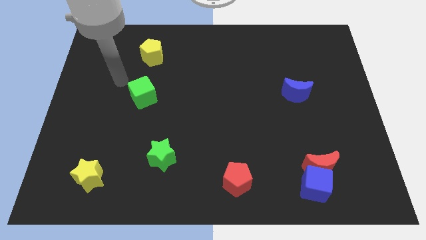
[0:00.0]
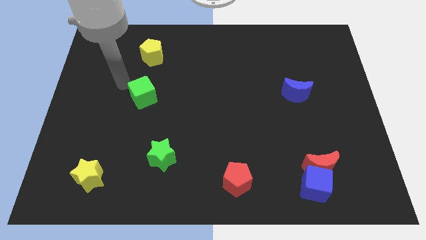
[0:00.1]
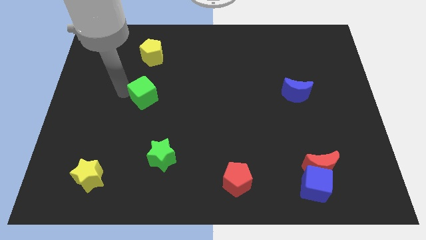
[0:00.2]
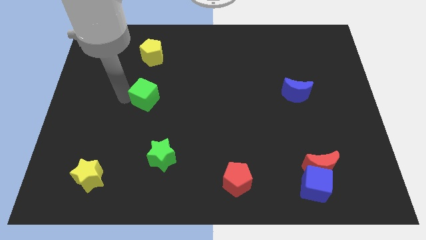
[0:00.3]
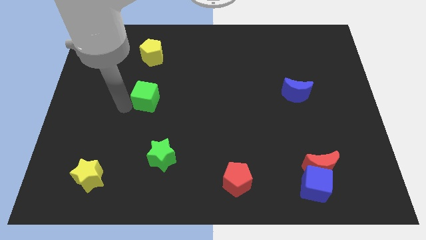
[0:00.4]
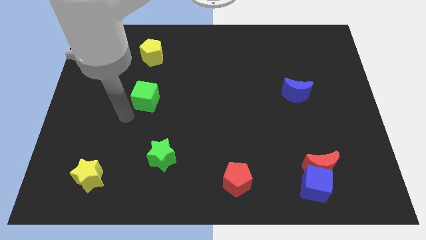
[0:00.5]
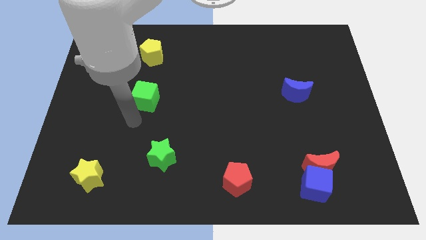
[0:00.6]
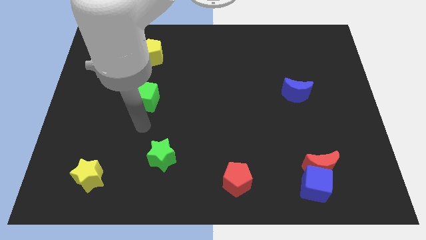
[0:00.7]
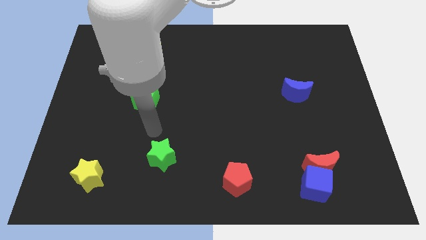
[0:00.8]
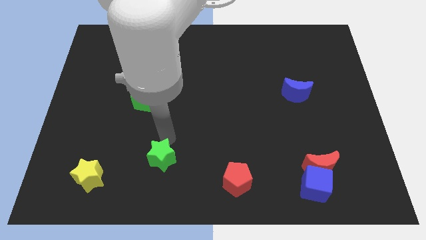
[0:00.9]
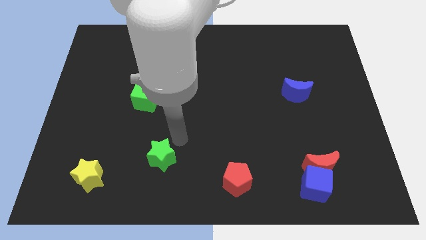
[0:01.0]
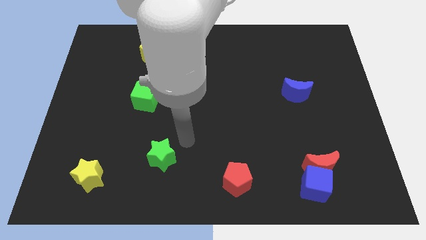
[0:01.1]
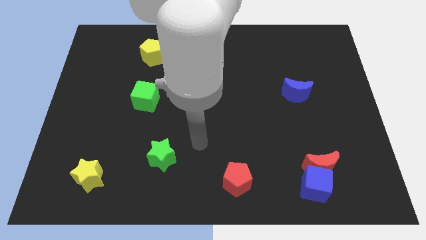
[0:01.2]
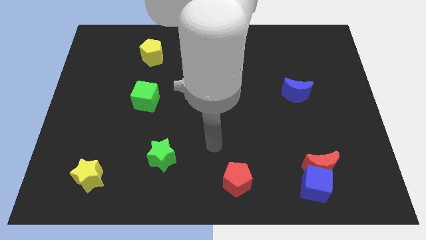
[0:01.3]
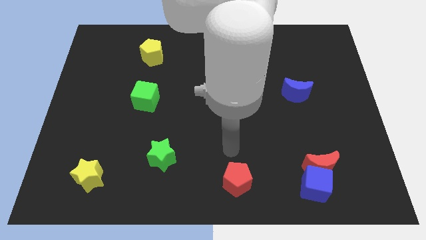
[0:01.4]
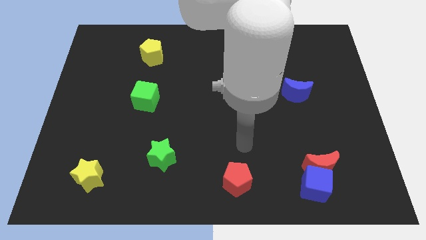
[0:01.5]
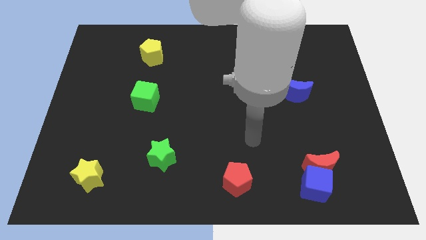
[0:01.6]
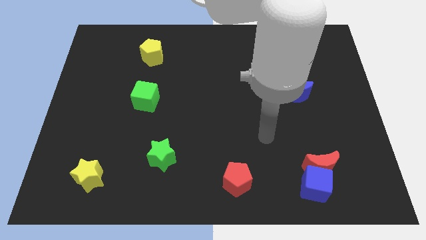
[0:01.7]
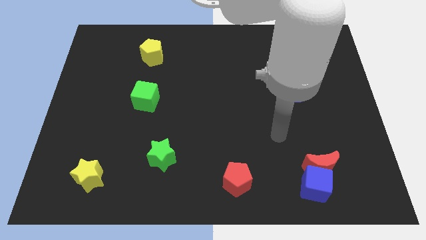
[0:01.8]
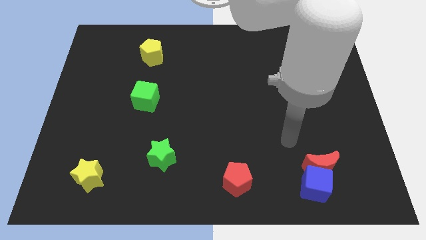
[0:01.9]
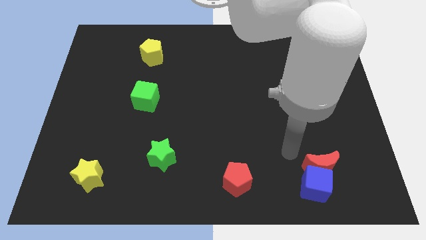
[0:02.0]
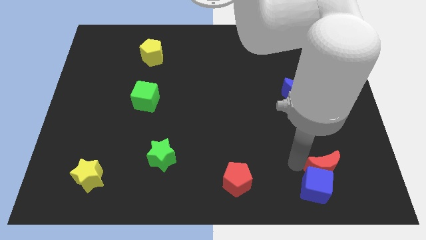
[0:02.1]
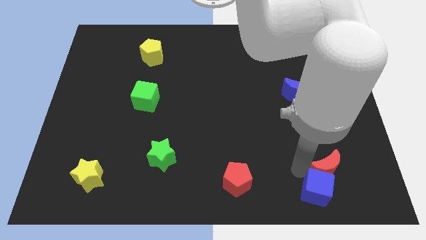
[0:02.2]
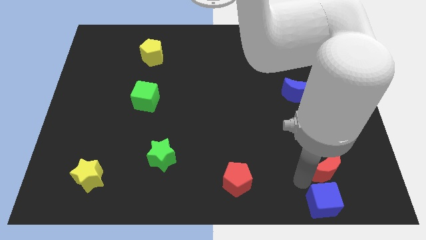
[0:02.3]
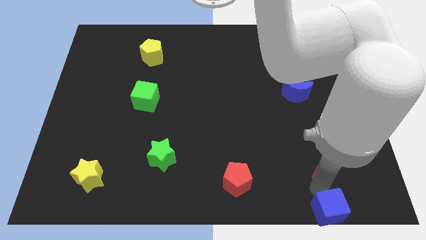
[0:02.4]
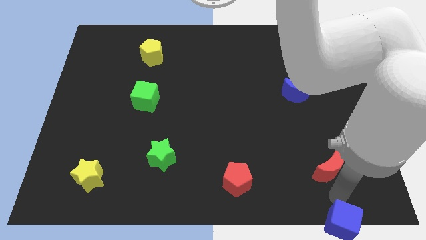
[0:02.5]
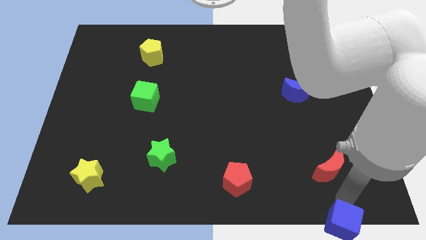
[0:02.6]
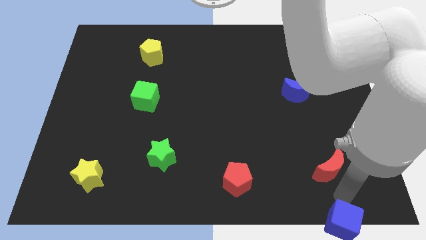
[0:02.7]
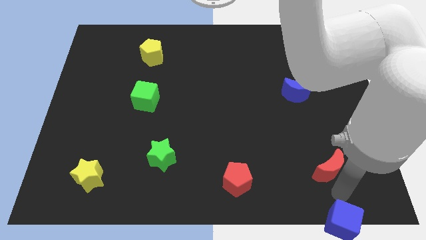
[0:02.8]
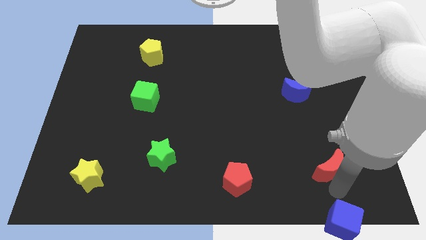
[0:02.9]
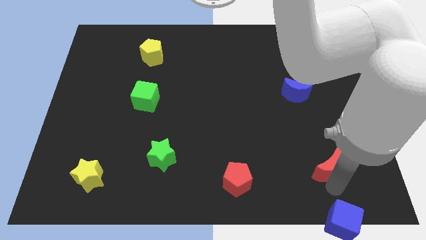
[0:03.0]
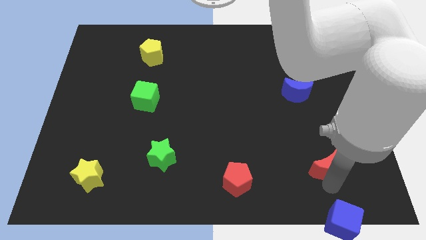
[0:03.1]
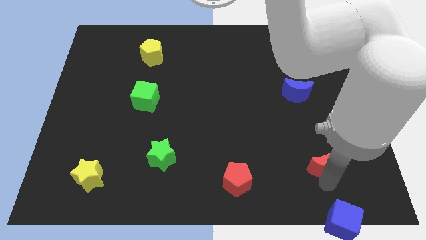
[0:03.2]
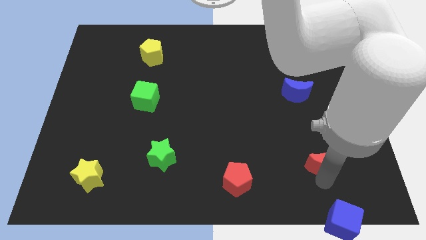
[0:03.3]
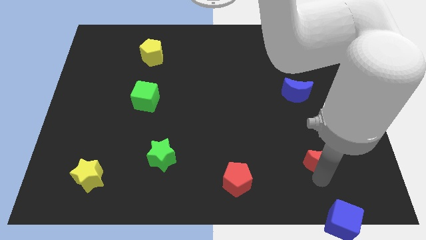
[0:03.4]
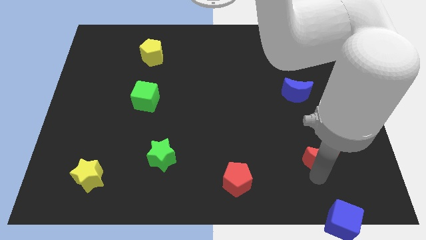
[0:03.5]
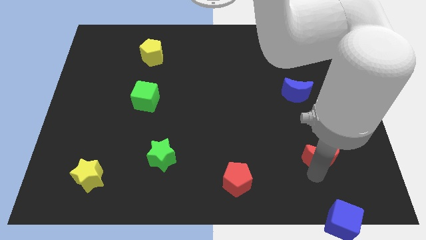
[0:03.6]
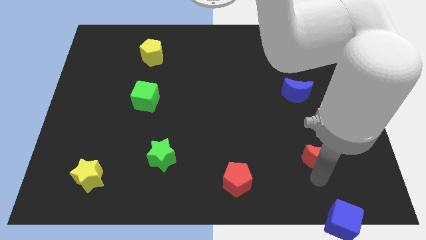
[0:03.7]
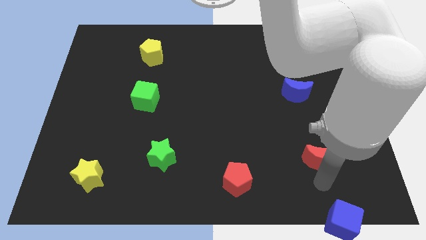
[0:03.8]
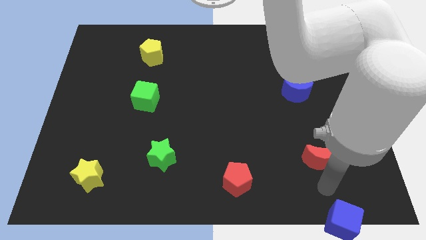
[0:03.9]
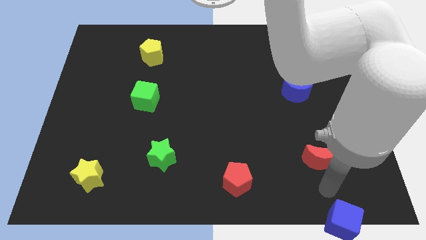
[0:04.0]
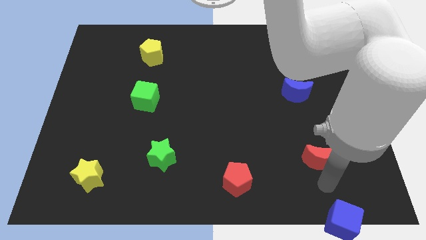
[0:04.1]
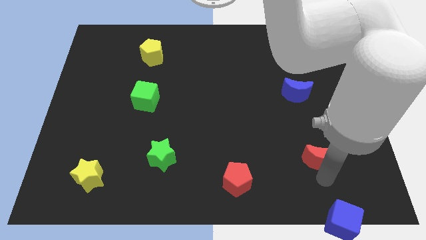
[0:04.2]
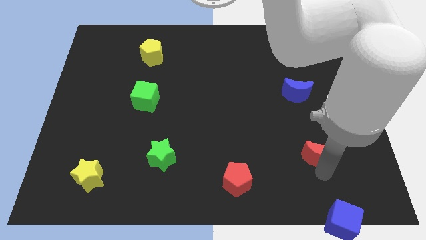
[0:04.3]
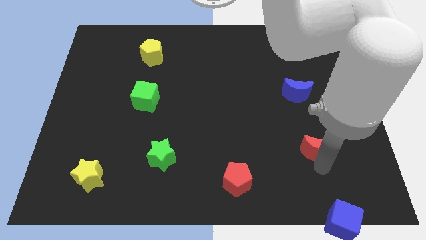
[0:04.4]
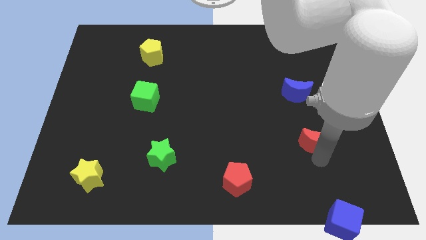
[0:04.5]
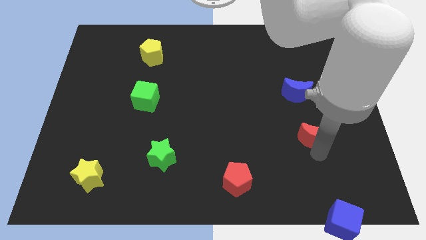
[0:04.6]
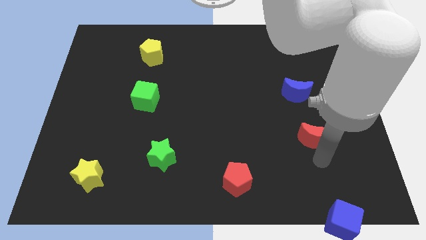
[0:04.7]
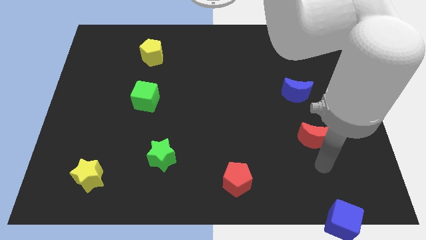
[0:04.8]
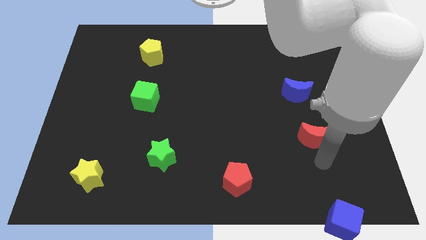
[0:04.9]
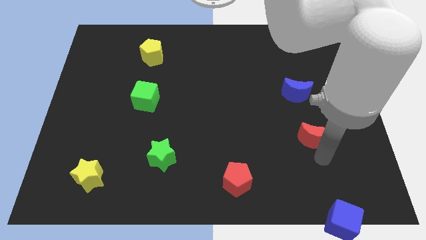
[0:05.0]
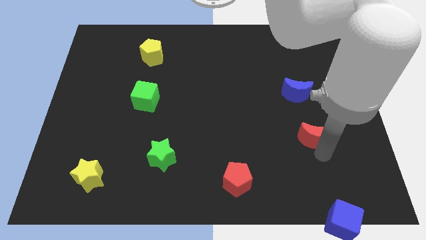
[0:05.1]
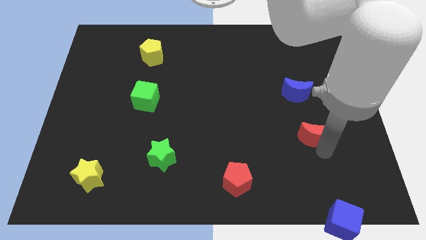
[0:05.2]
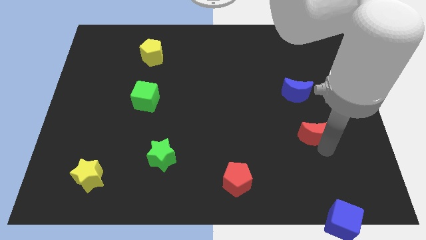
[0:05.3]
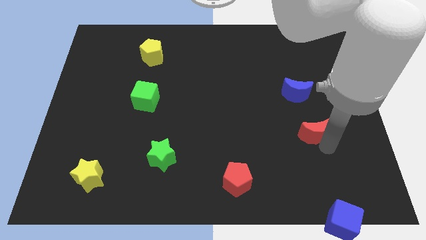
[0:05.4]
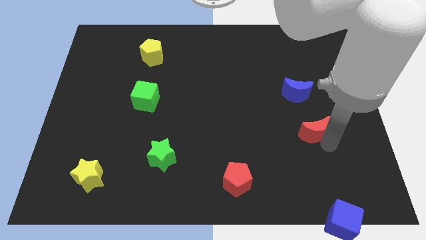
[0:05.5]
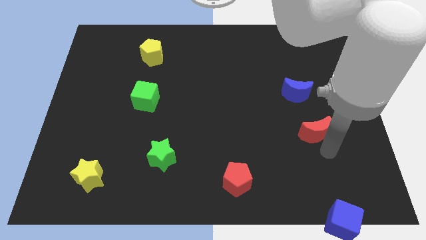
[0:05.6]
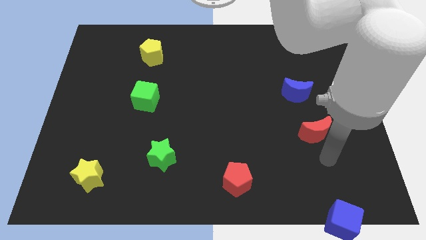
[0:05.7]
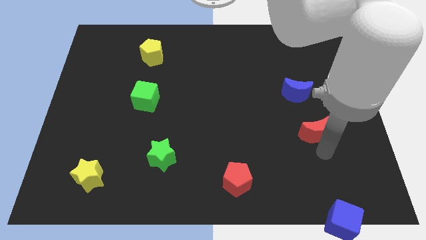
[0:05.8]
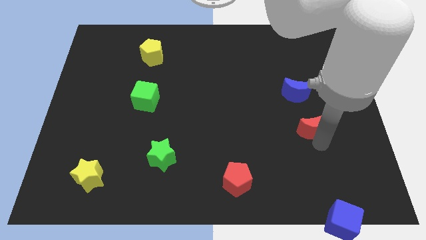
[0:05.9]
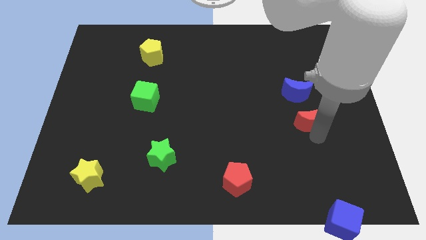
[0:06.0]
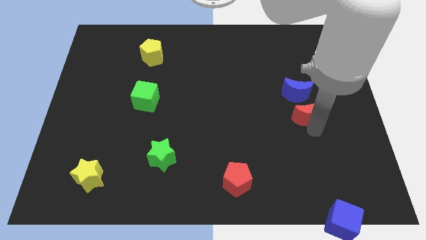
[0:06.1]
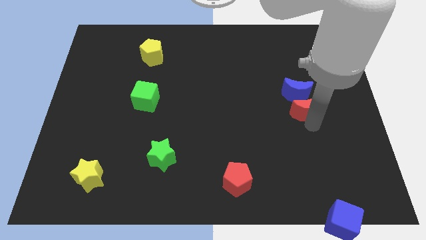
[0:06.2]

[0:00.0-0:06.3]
put the red moon next to the blue moon
